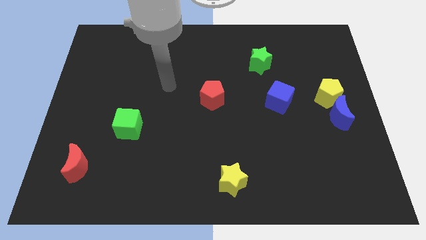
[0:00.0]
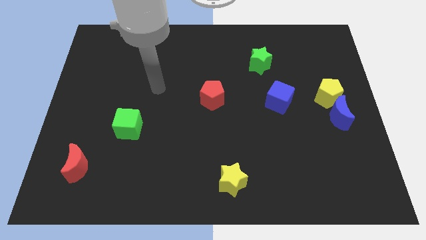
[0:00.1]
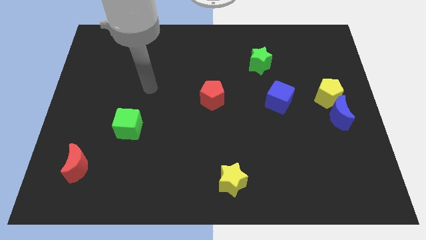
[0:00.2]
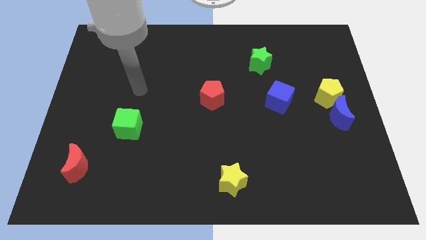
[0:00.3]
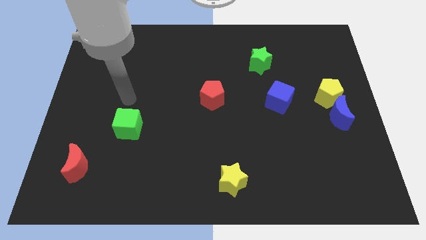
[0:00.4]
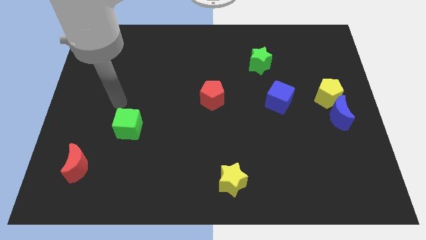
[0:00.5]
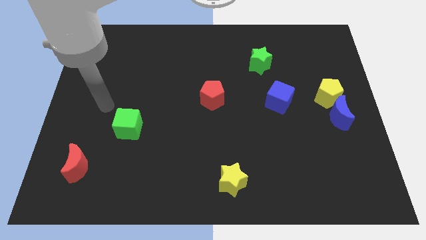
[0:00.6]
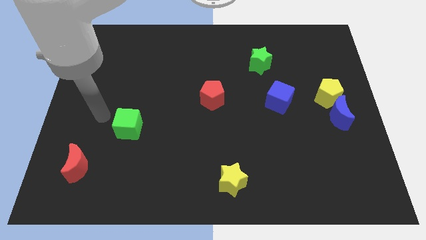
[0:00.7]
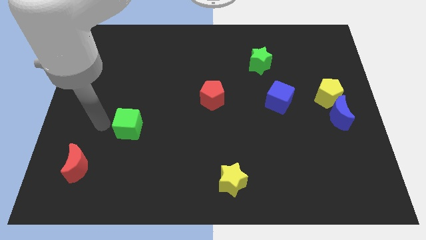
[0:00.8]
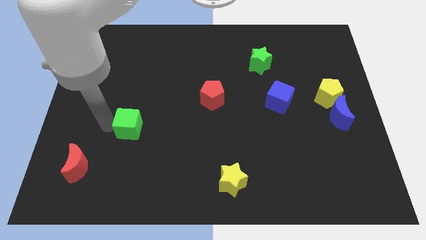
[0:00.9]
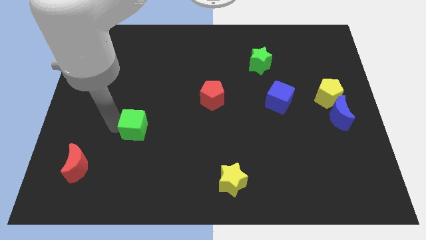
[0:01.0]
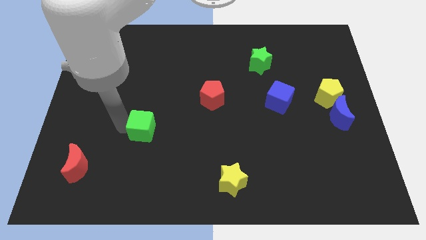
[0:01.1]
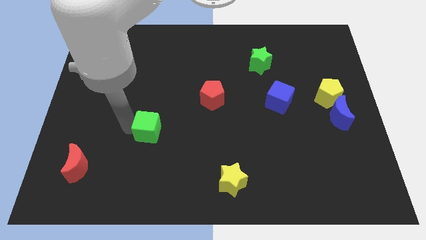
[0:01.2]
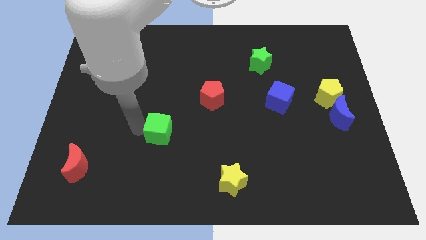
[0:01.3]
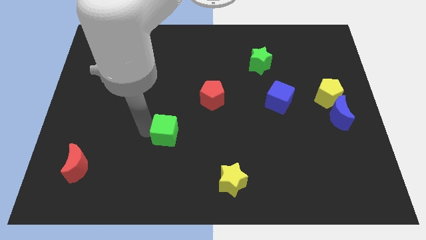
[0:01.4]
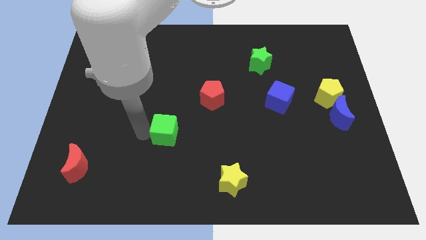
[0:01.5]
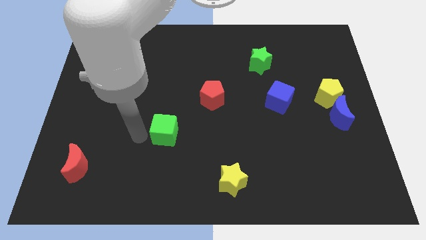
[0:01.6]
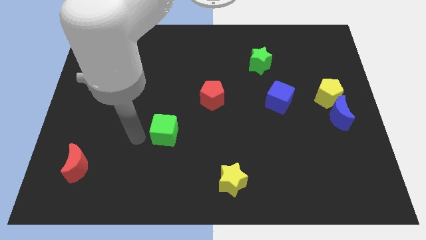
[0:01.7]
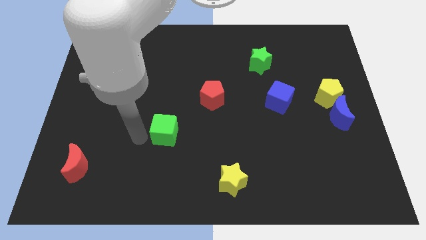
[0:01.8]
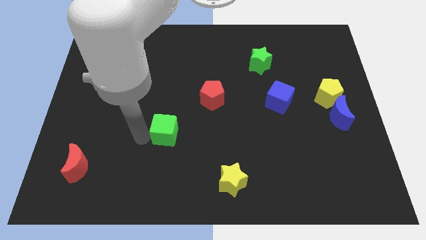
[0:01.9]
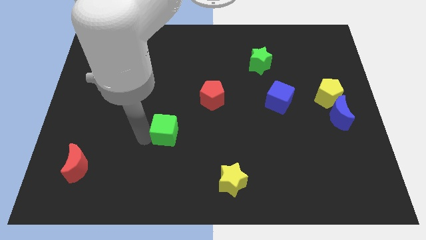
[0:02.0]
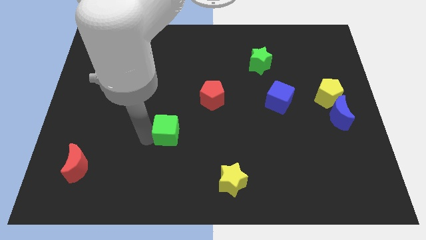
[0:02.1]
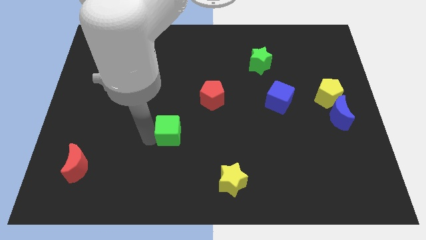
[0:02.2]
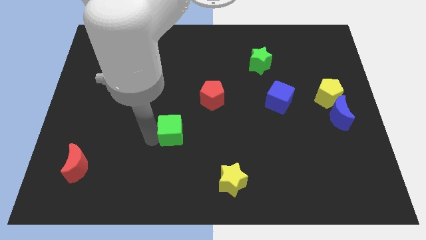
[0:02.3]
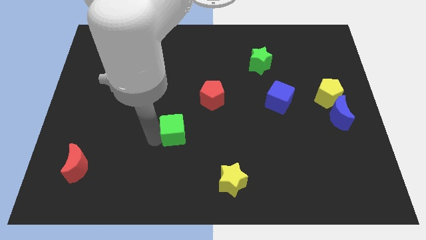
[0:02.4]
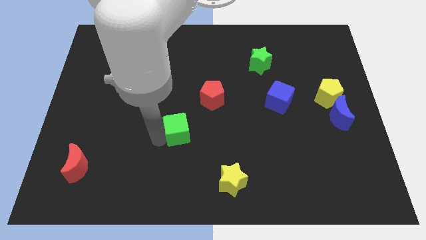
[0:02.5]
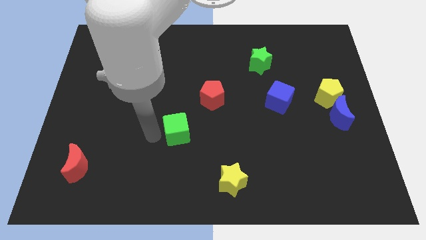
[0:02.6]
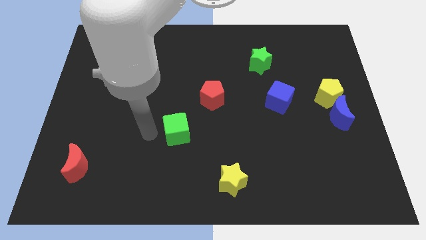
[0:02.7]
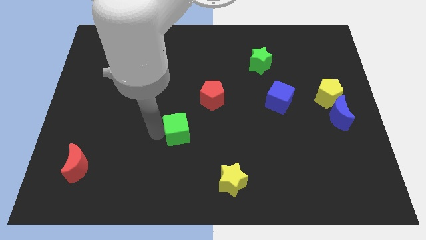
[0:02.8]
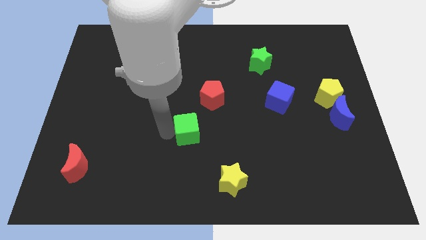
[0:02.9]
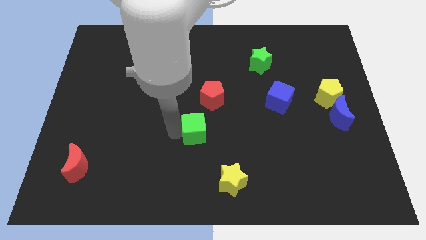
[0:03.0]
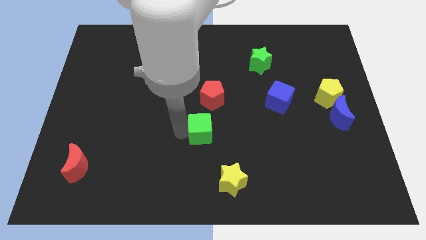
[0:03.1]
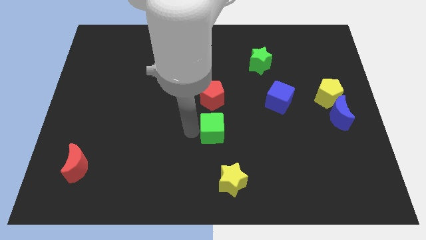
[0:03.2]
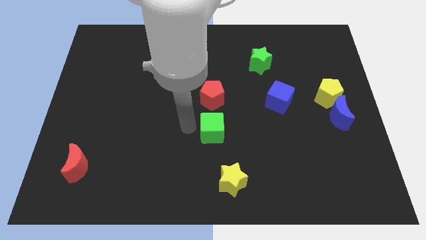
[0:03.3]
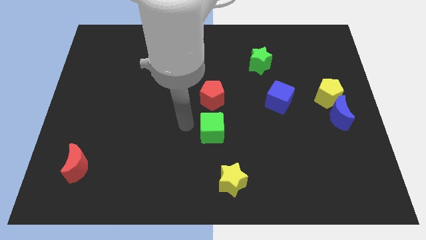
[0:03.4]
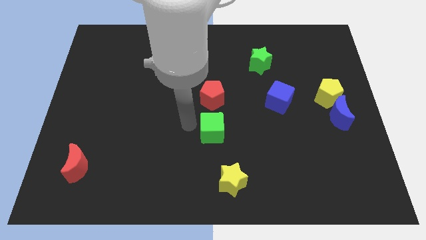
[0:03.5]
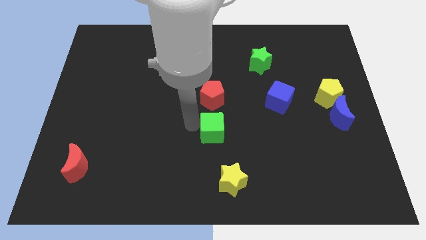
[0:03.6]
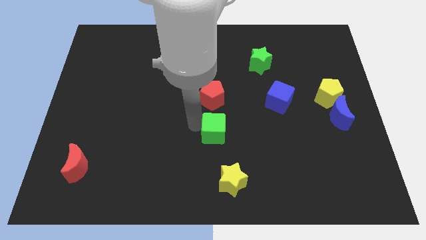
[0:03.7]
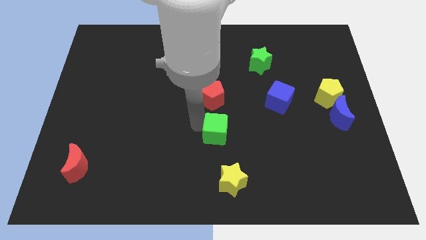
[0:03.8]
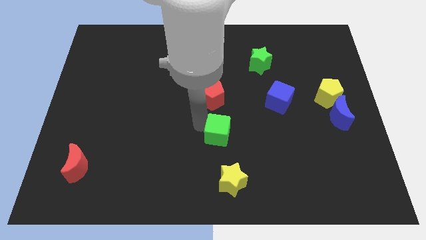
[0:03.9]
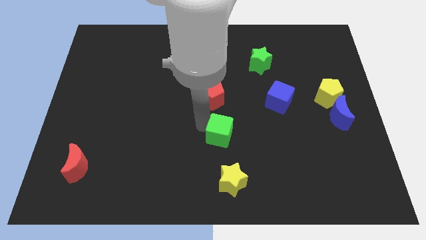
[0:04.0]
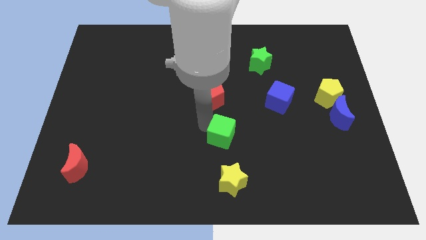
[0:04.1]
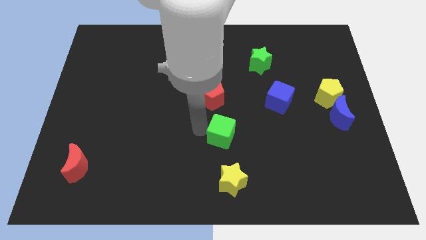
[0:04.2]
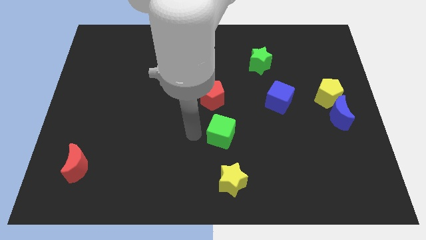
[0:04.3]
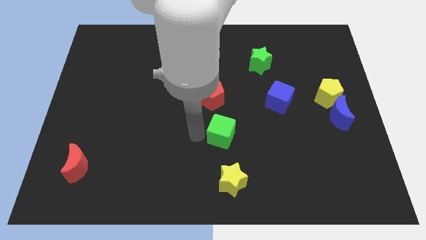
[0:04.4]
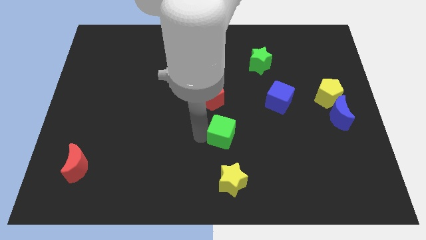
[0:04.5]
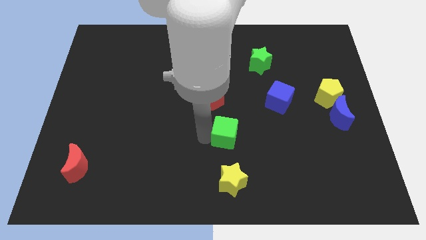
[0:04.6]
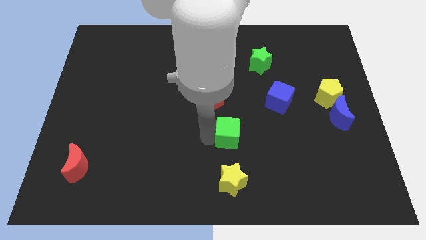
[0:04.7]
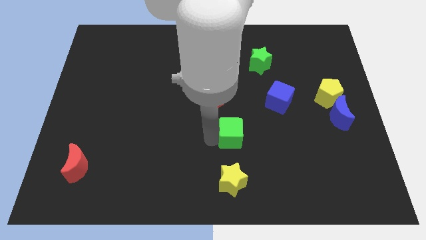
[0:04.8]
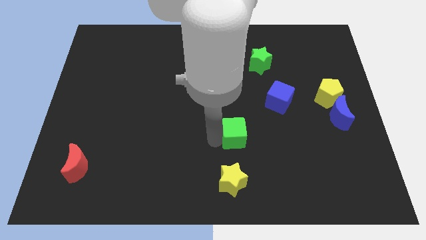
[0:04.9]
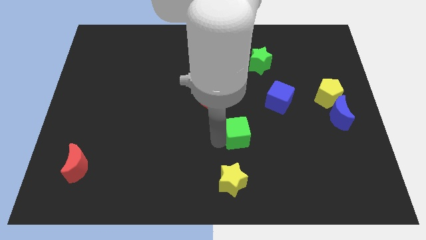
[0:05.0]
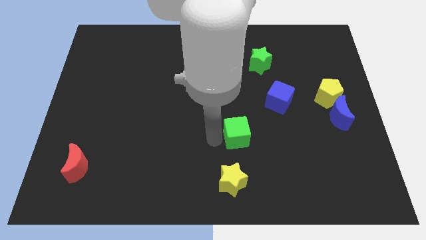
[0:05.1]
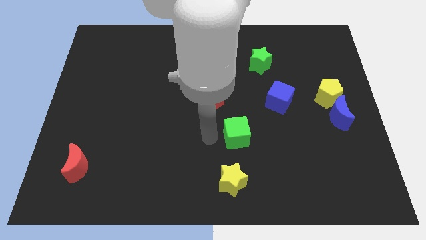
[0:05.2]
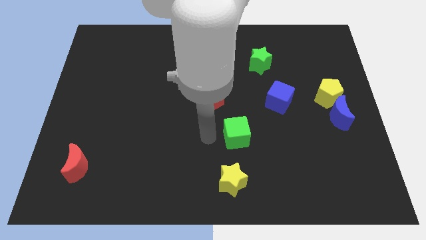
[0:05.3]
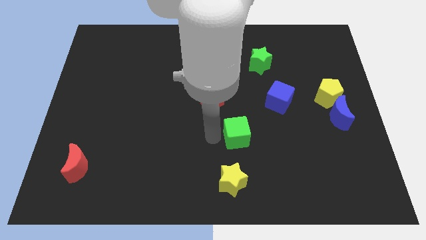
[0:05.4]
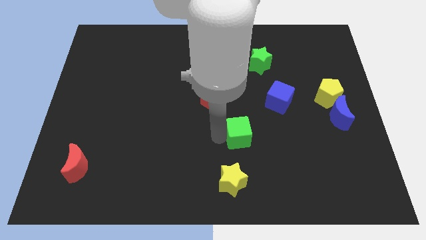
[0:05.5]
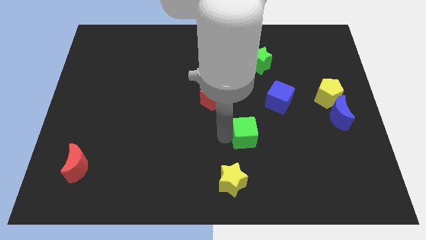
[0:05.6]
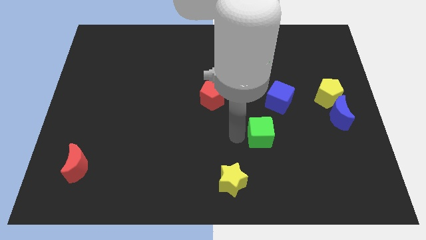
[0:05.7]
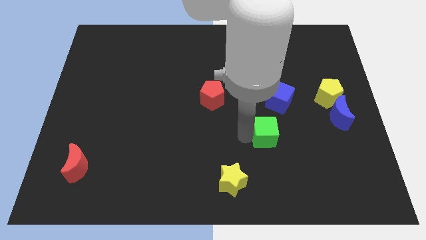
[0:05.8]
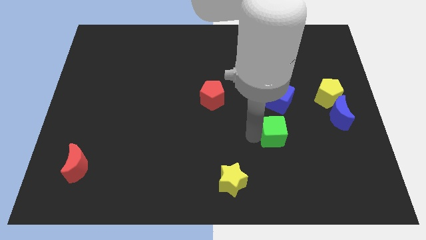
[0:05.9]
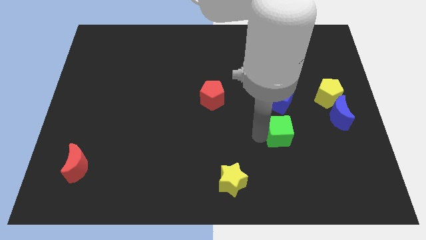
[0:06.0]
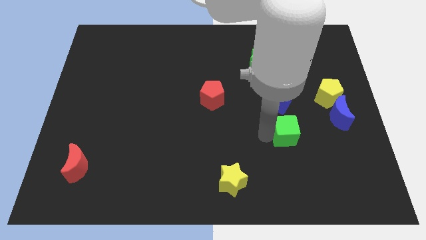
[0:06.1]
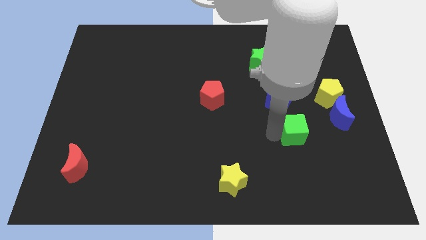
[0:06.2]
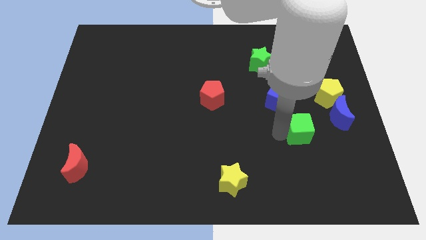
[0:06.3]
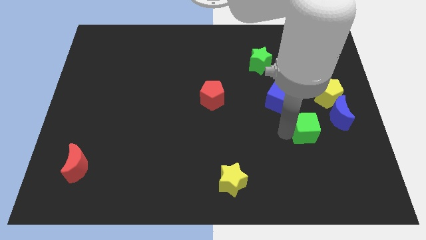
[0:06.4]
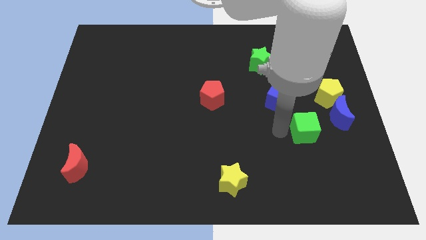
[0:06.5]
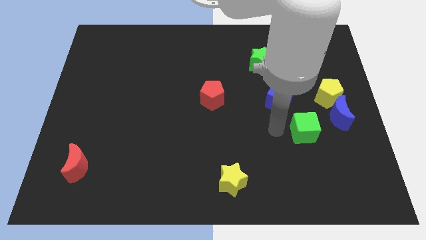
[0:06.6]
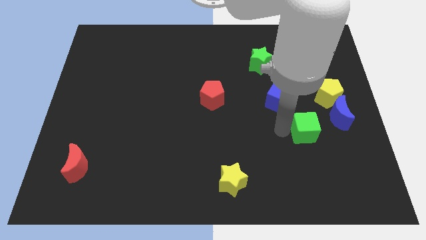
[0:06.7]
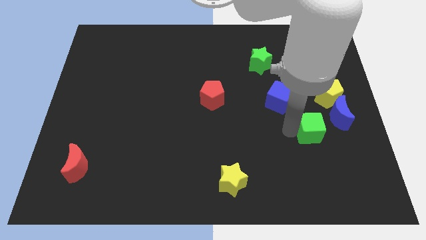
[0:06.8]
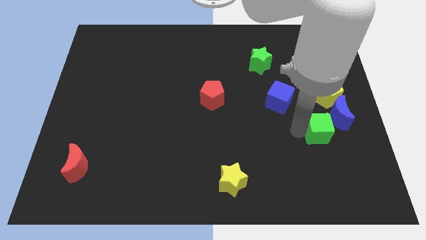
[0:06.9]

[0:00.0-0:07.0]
slide the green cube to the bottom of the yellow pentagon
